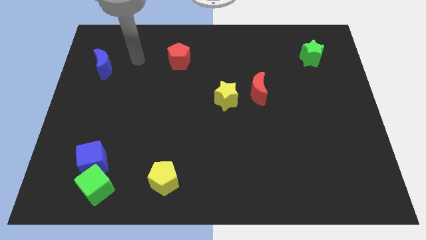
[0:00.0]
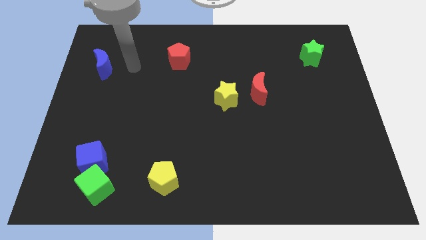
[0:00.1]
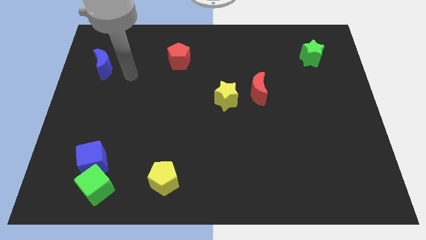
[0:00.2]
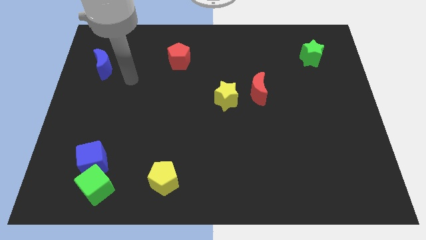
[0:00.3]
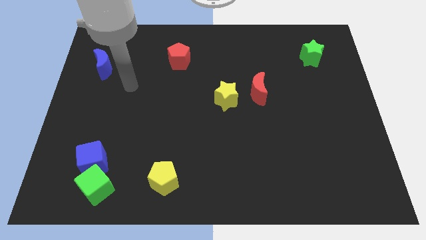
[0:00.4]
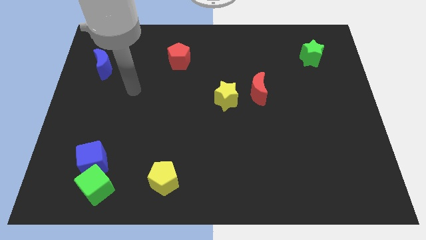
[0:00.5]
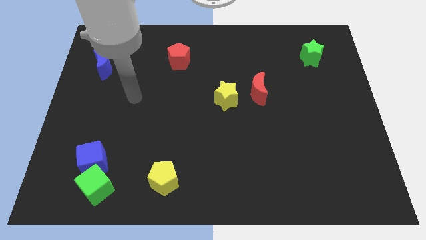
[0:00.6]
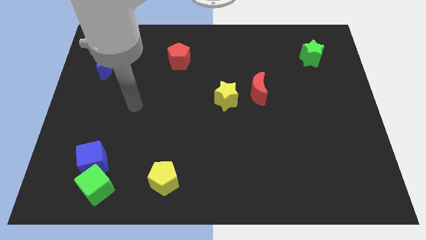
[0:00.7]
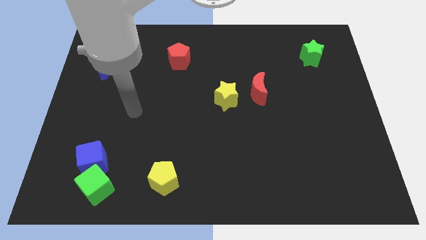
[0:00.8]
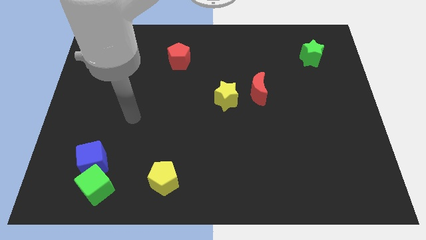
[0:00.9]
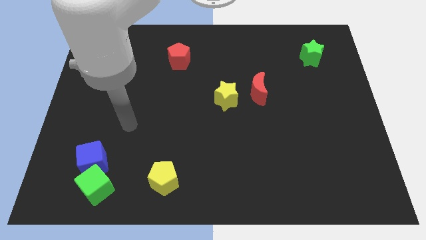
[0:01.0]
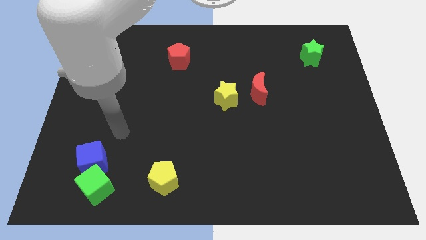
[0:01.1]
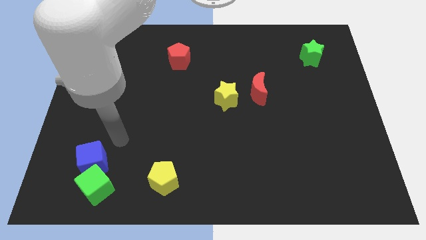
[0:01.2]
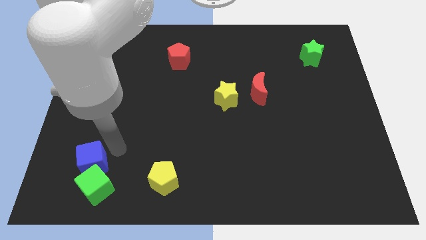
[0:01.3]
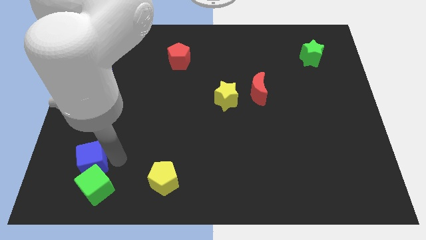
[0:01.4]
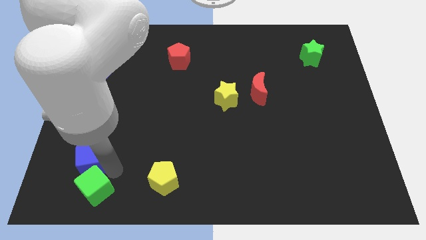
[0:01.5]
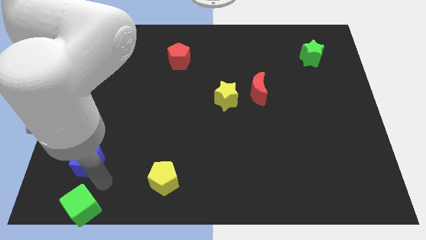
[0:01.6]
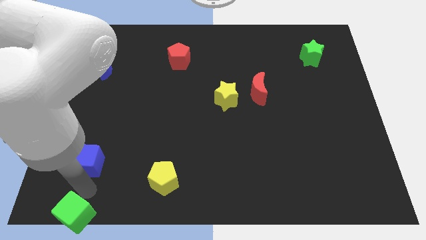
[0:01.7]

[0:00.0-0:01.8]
separate the blue cube from the green cube

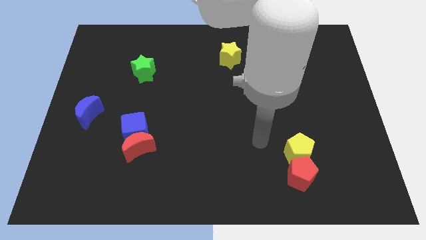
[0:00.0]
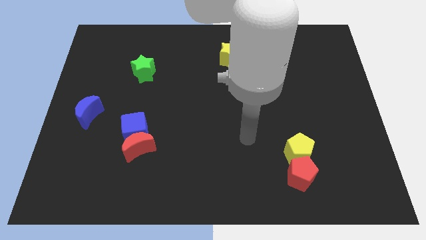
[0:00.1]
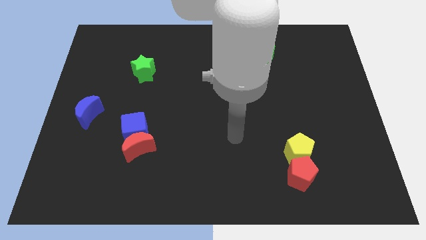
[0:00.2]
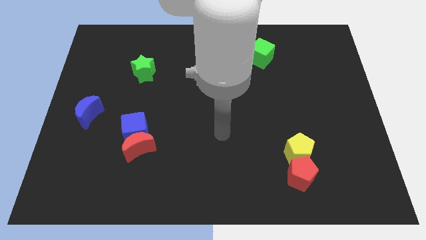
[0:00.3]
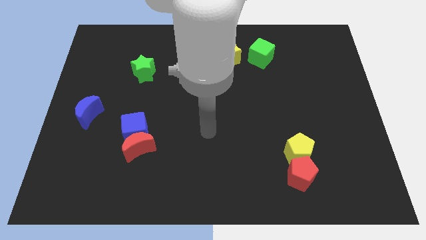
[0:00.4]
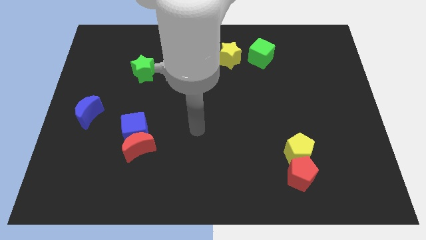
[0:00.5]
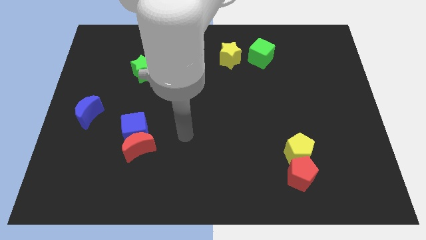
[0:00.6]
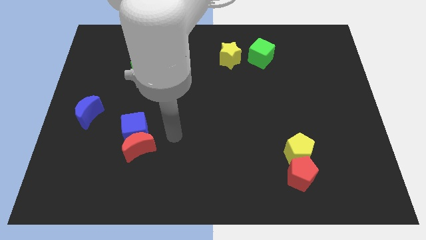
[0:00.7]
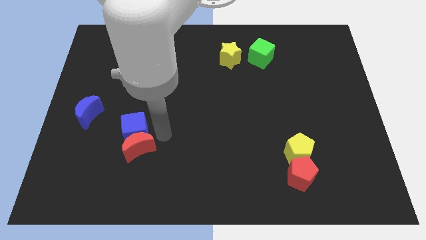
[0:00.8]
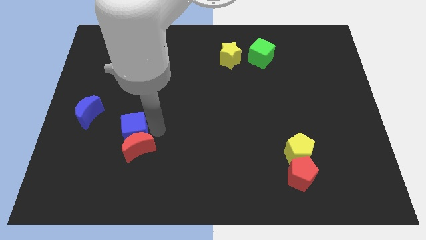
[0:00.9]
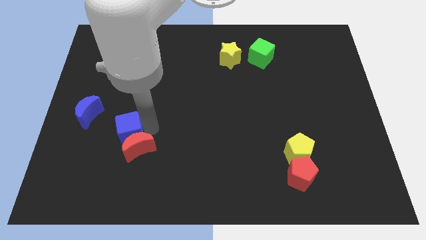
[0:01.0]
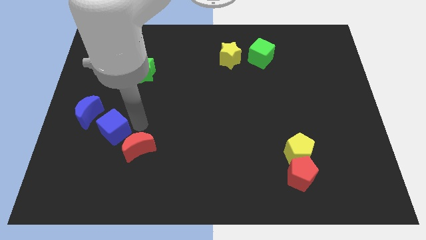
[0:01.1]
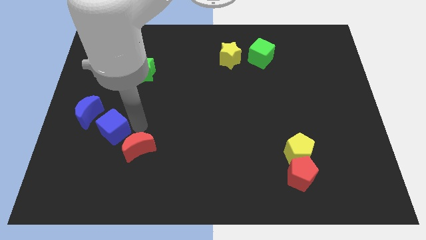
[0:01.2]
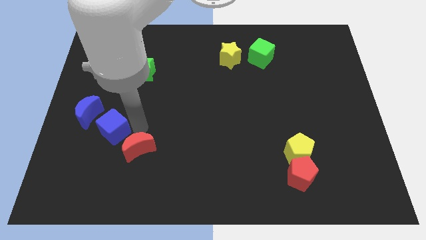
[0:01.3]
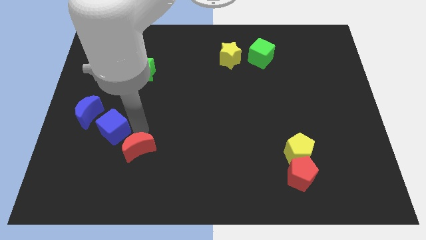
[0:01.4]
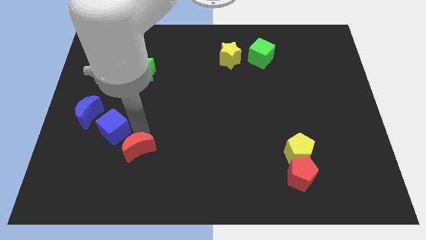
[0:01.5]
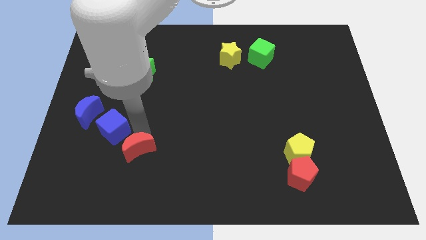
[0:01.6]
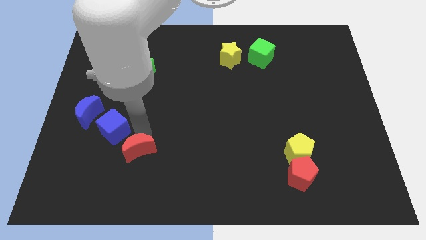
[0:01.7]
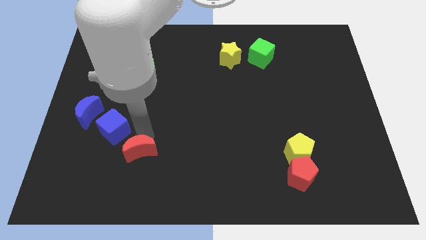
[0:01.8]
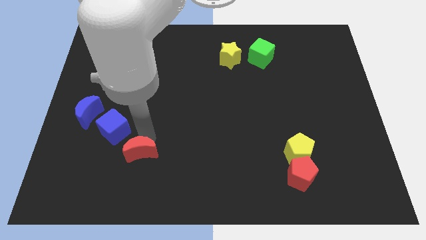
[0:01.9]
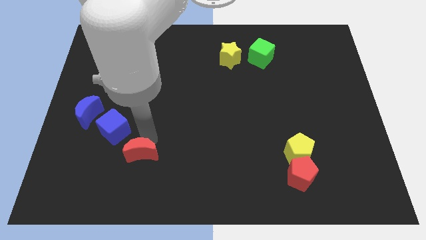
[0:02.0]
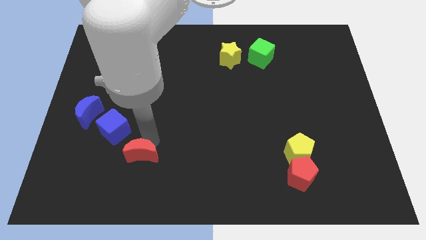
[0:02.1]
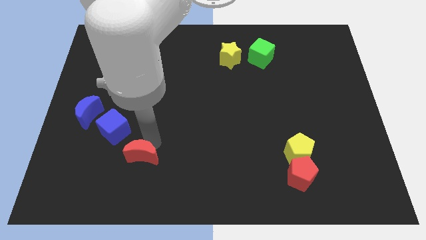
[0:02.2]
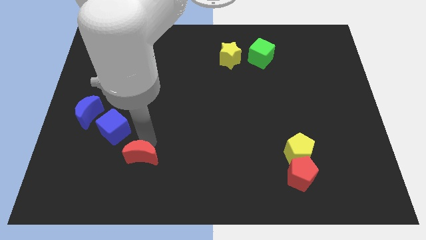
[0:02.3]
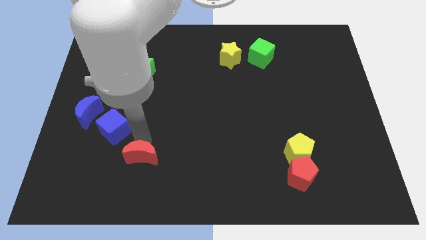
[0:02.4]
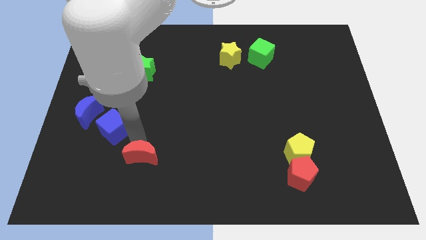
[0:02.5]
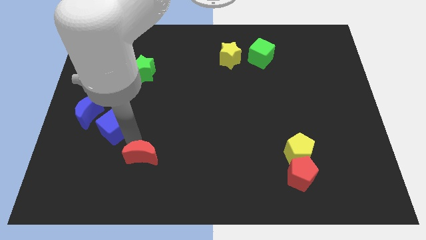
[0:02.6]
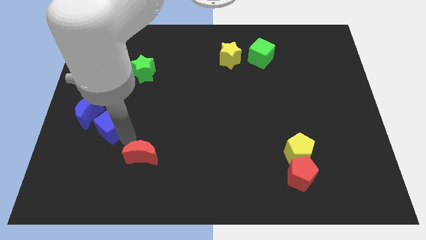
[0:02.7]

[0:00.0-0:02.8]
pull the red moon apart from the blue cube

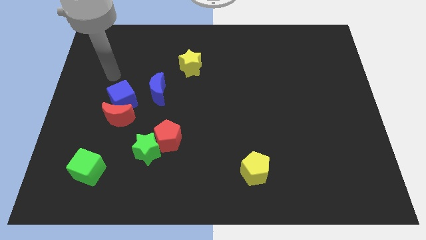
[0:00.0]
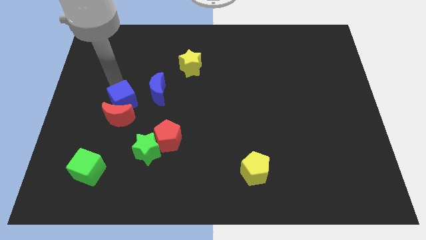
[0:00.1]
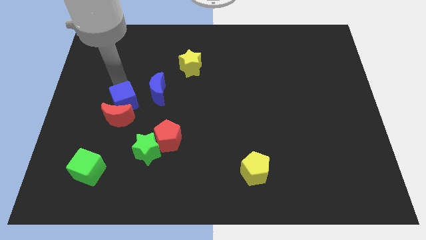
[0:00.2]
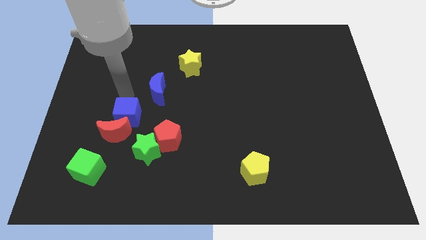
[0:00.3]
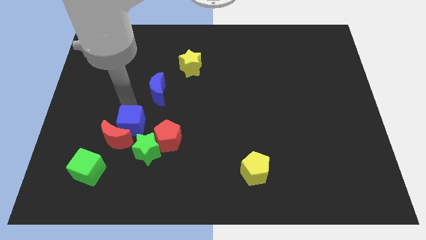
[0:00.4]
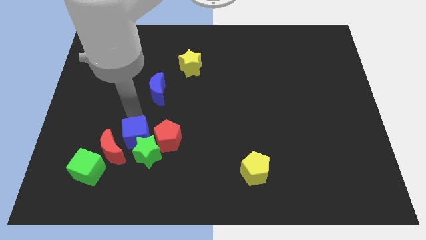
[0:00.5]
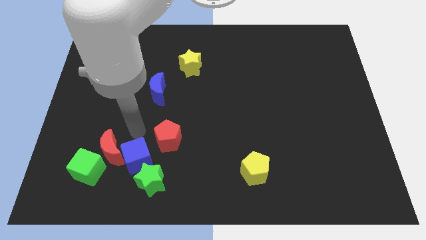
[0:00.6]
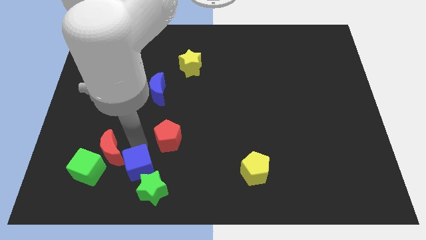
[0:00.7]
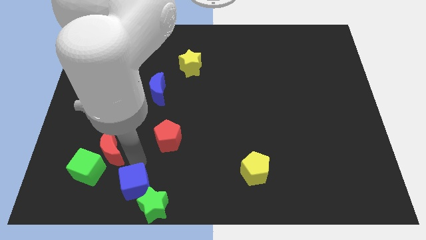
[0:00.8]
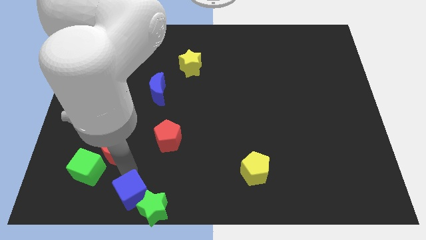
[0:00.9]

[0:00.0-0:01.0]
separate the red moon from the blue cube

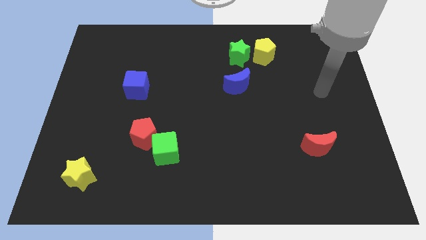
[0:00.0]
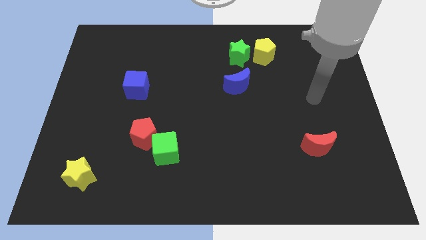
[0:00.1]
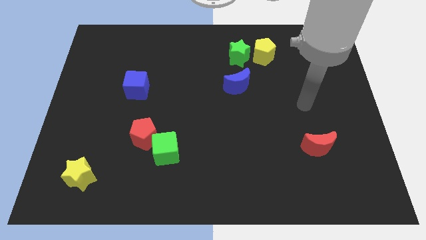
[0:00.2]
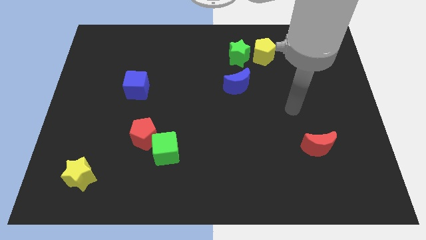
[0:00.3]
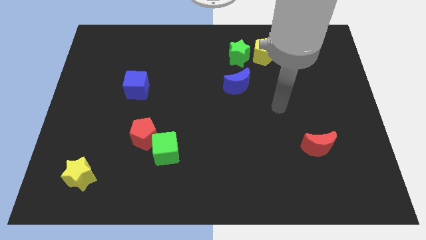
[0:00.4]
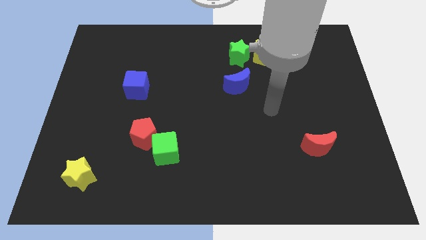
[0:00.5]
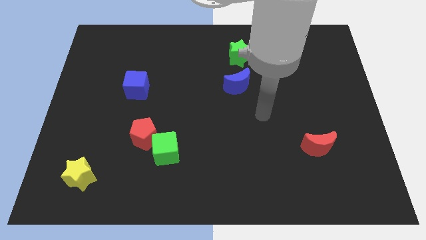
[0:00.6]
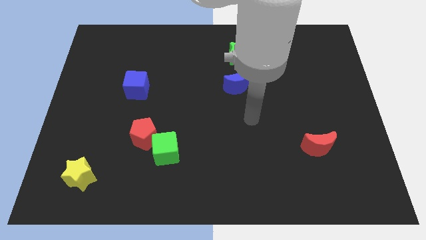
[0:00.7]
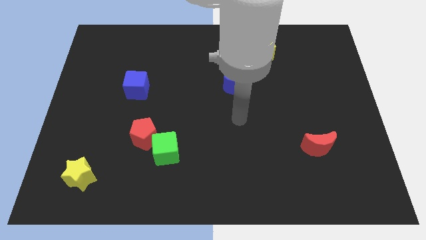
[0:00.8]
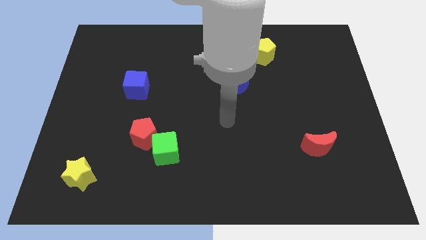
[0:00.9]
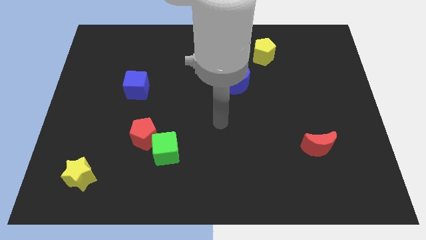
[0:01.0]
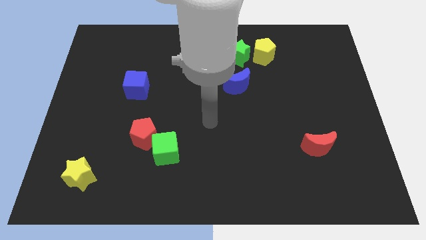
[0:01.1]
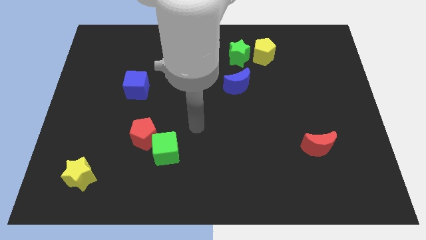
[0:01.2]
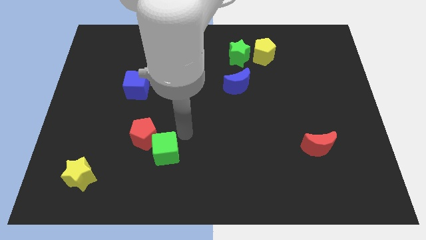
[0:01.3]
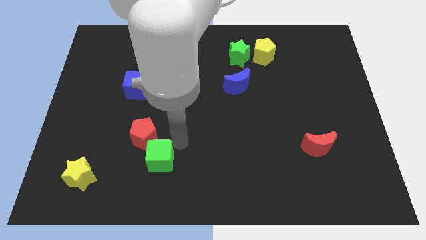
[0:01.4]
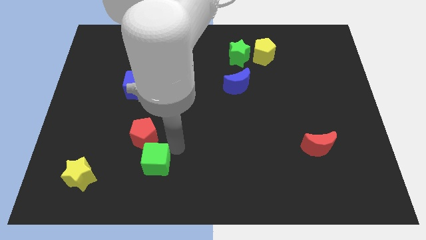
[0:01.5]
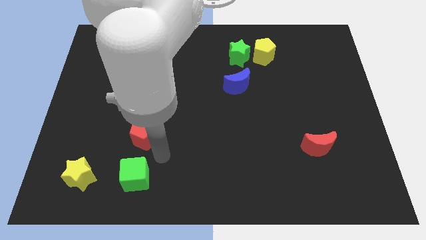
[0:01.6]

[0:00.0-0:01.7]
pull the red pentagon apart from the green cube

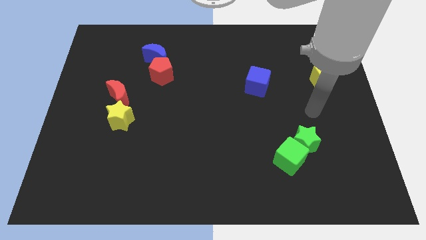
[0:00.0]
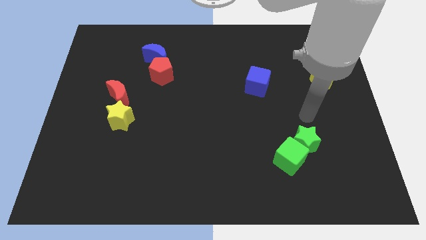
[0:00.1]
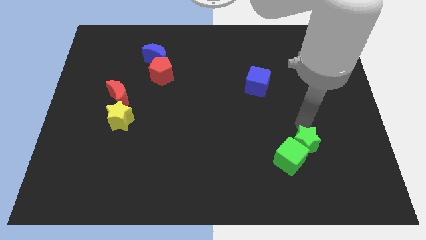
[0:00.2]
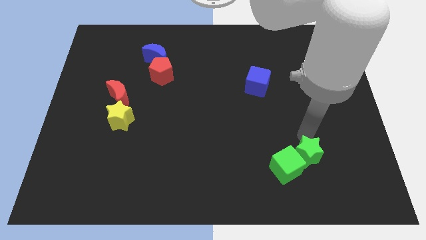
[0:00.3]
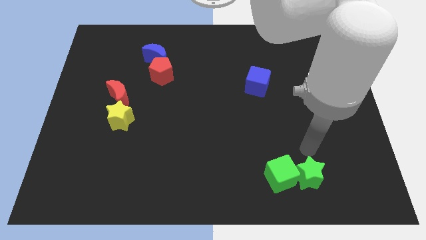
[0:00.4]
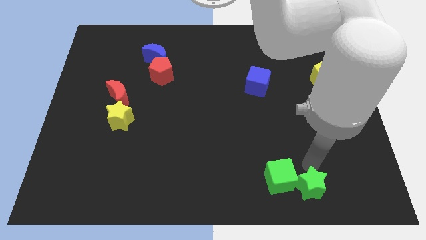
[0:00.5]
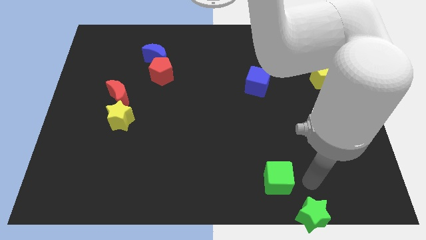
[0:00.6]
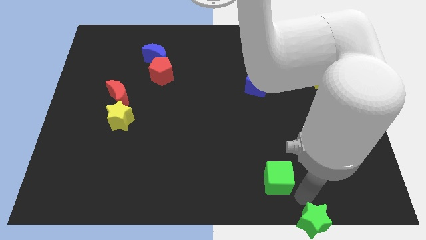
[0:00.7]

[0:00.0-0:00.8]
separate the green cube from the green star

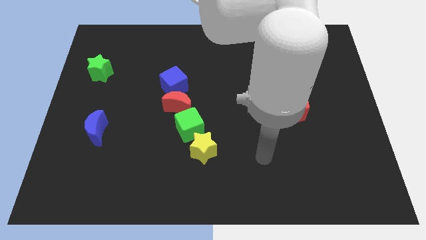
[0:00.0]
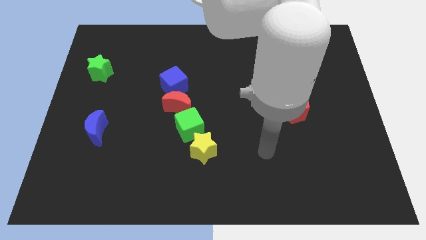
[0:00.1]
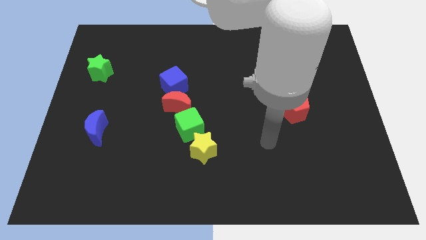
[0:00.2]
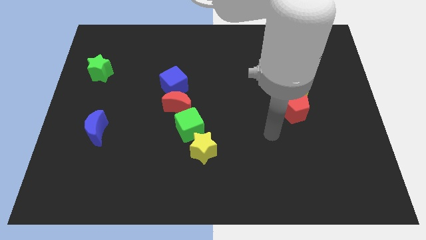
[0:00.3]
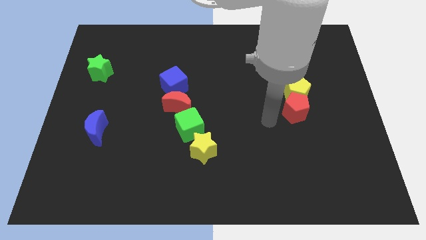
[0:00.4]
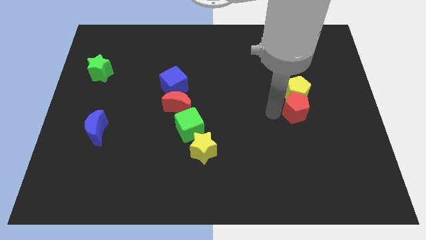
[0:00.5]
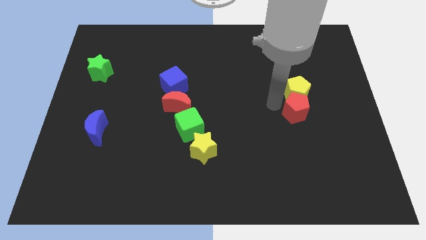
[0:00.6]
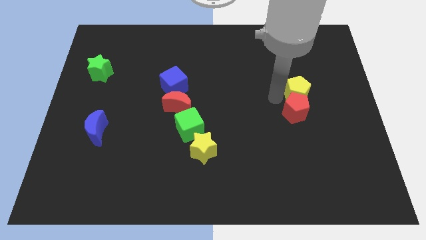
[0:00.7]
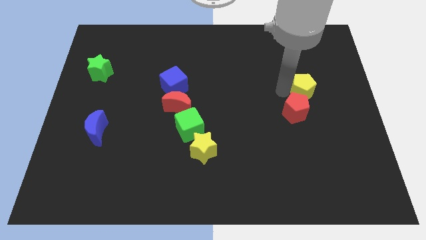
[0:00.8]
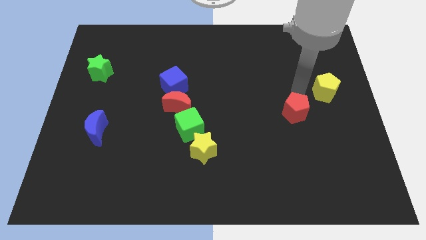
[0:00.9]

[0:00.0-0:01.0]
pull the red pentagon apart from the yellow pentagon

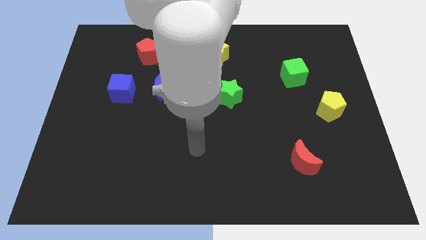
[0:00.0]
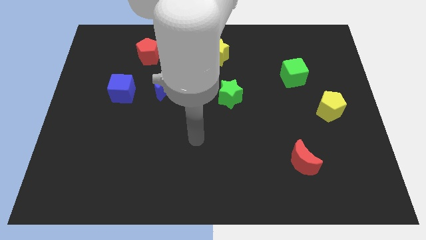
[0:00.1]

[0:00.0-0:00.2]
separate the blue moon from the blue cube
